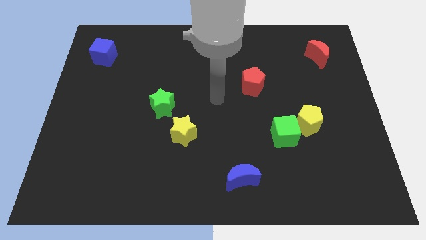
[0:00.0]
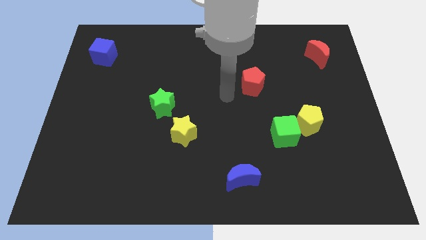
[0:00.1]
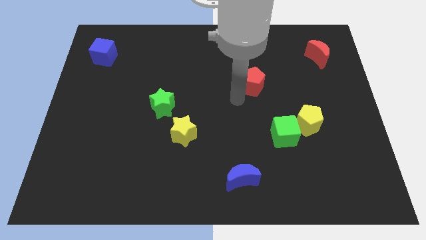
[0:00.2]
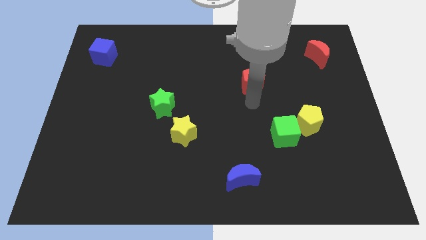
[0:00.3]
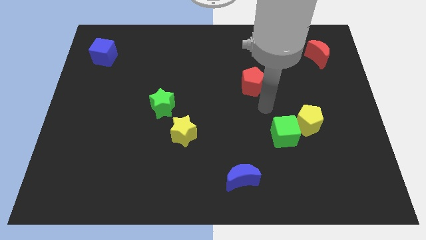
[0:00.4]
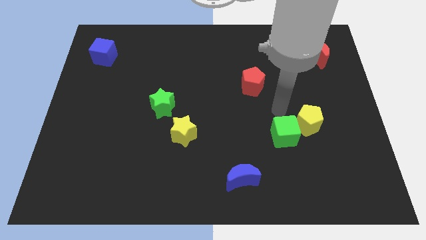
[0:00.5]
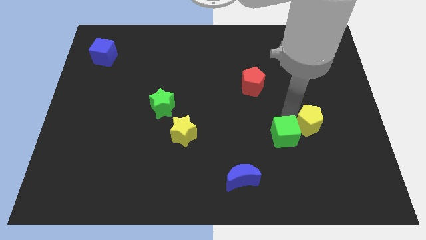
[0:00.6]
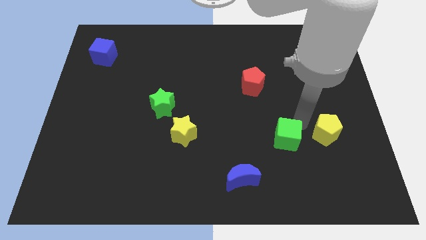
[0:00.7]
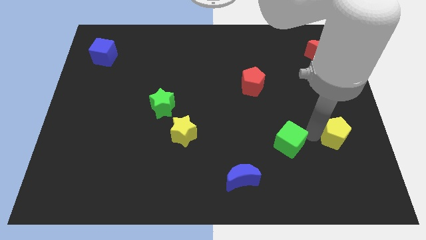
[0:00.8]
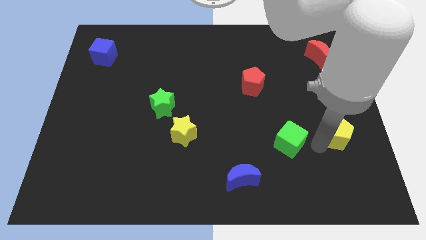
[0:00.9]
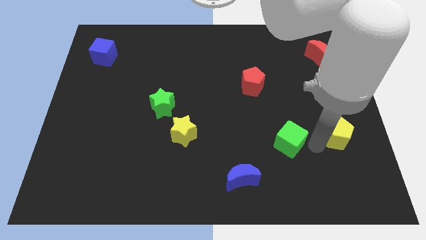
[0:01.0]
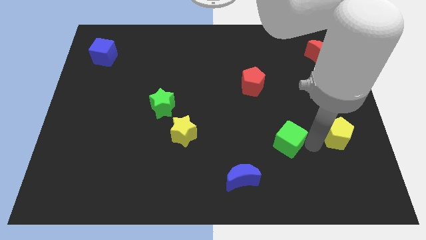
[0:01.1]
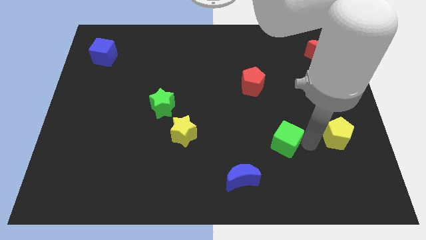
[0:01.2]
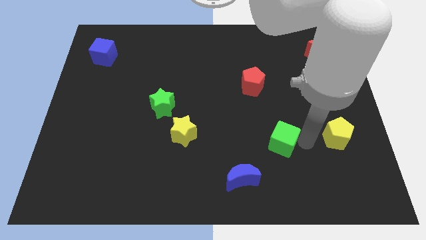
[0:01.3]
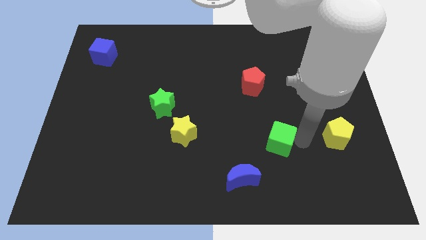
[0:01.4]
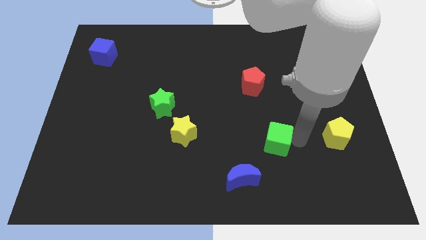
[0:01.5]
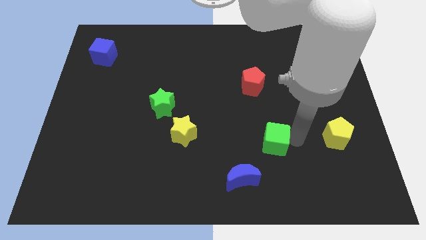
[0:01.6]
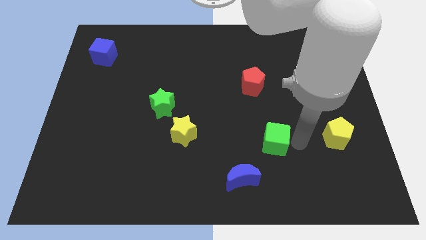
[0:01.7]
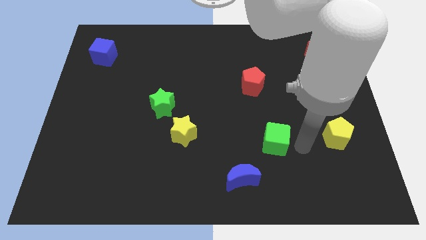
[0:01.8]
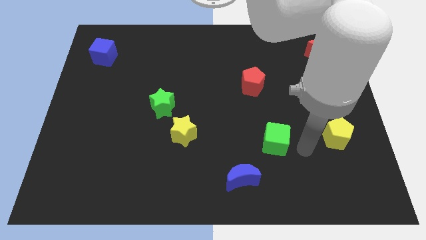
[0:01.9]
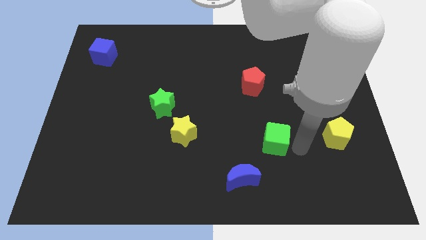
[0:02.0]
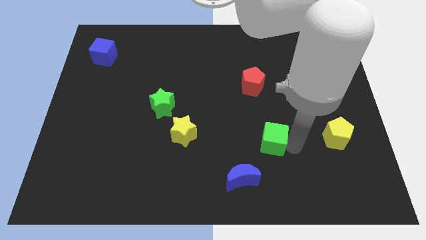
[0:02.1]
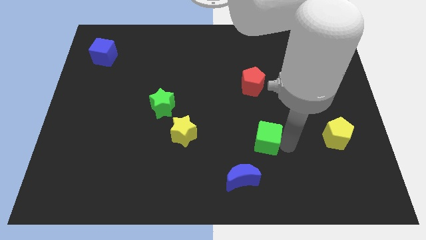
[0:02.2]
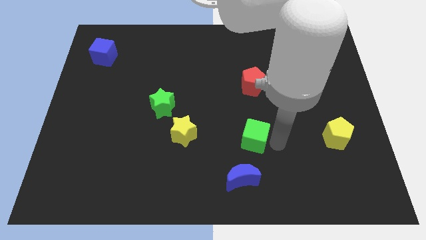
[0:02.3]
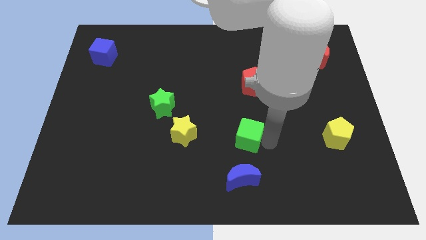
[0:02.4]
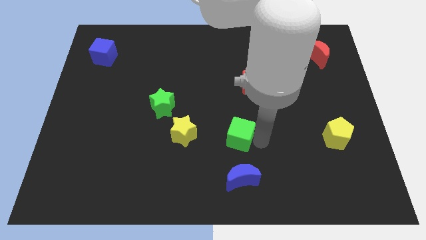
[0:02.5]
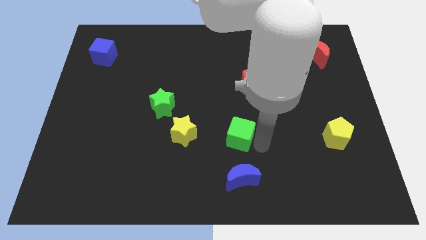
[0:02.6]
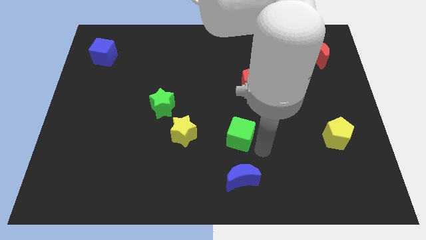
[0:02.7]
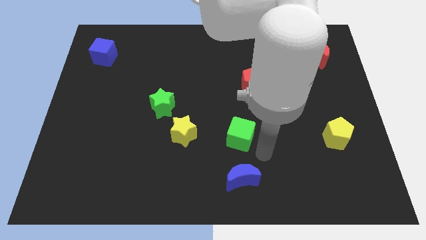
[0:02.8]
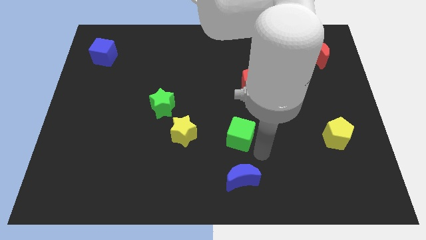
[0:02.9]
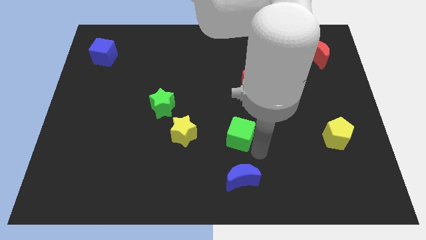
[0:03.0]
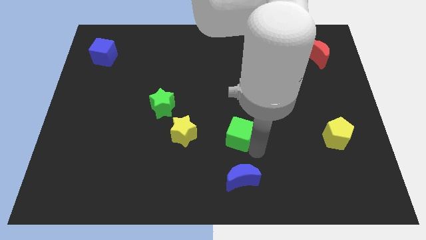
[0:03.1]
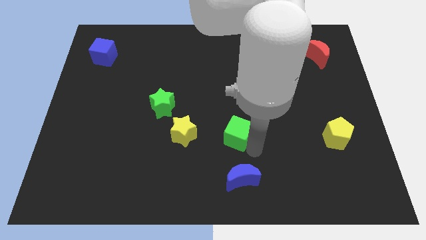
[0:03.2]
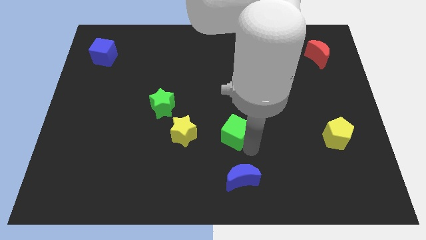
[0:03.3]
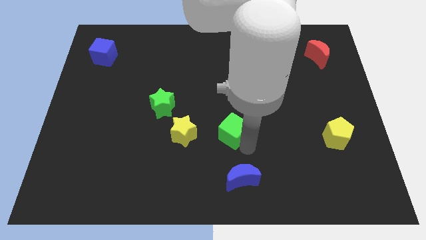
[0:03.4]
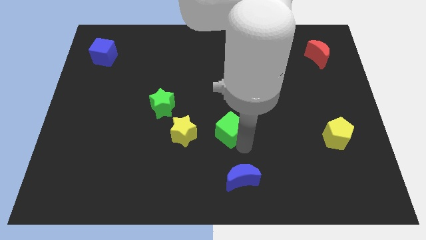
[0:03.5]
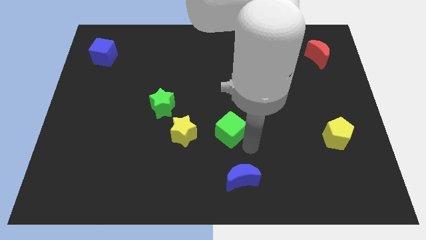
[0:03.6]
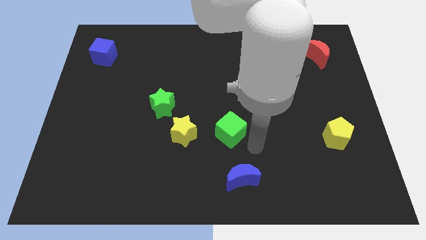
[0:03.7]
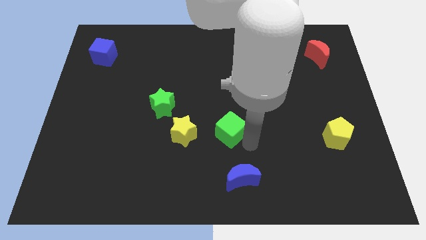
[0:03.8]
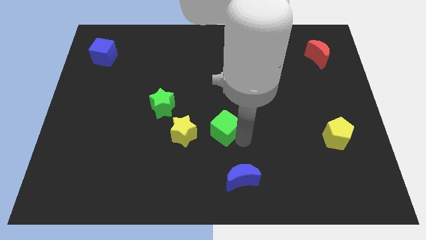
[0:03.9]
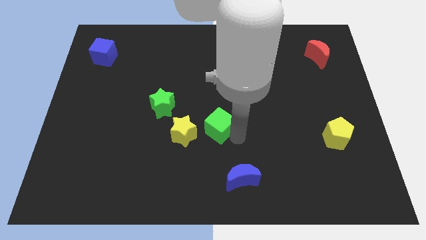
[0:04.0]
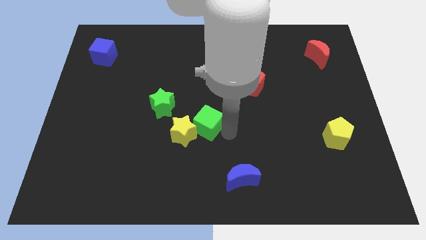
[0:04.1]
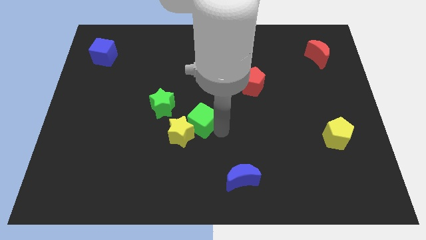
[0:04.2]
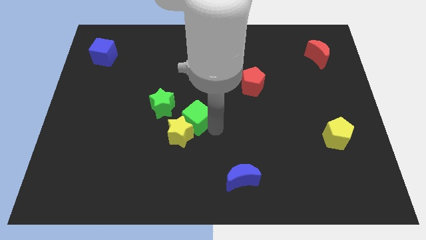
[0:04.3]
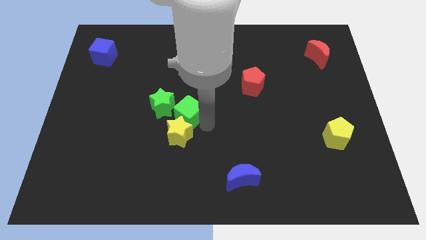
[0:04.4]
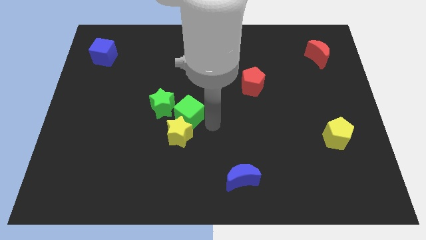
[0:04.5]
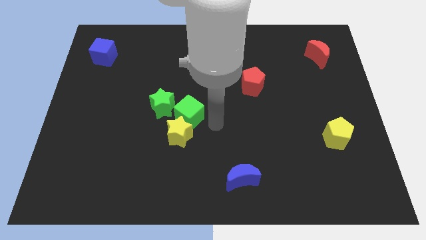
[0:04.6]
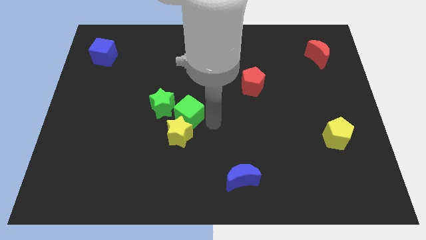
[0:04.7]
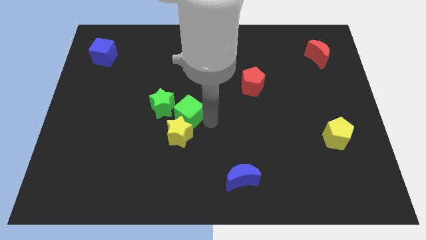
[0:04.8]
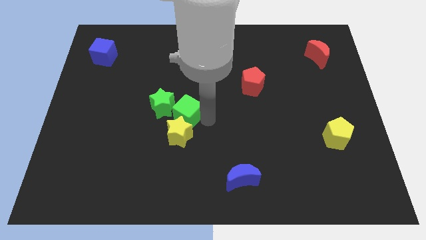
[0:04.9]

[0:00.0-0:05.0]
move the green cube towards the green star

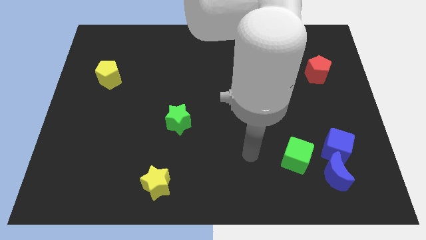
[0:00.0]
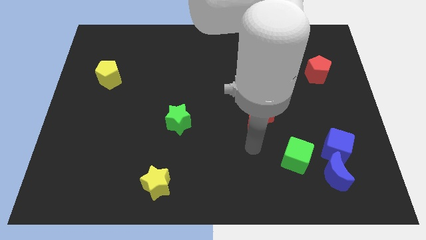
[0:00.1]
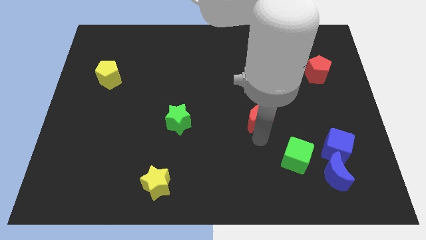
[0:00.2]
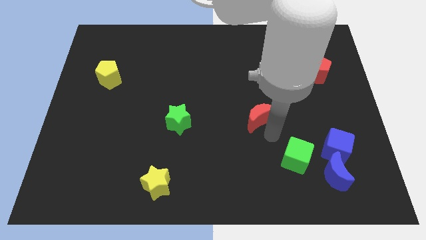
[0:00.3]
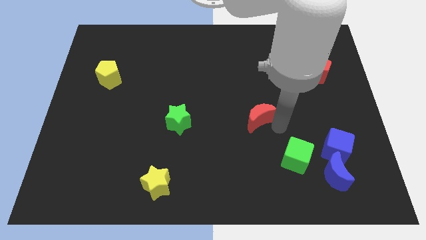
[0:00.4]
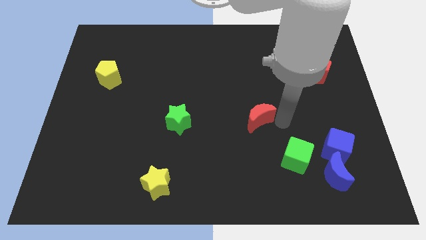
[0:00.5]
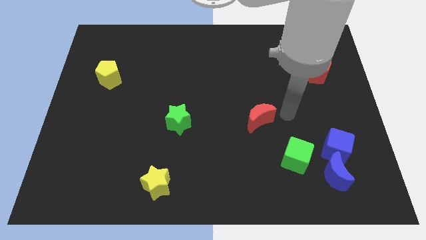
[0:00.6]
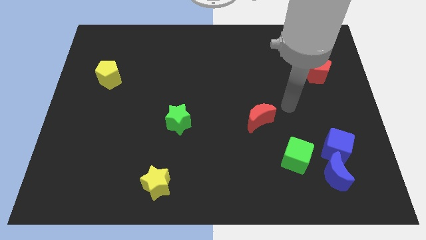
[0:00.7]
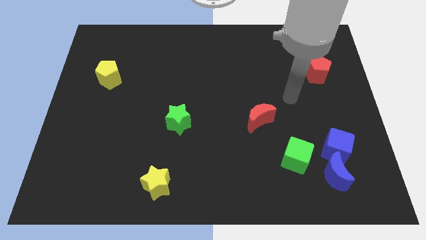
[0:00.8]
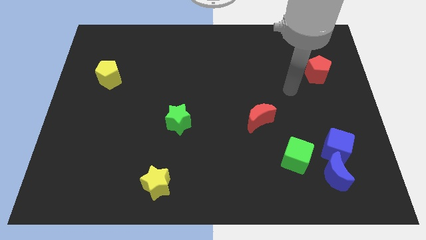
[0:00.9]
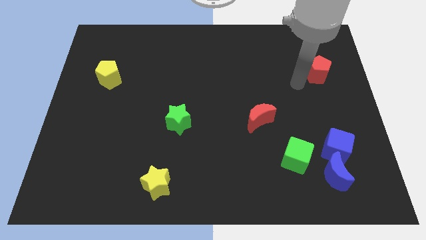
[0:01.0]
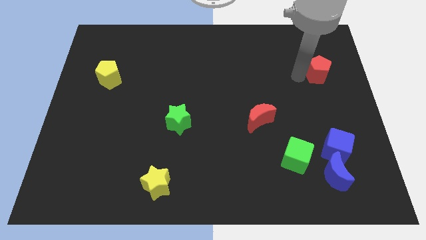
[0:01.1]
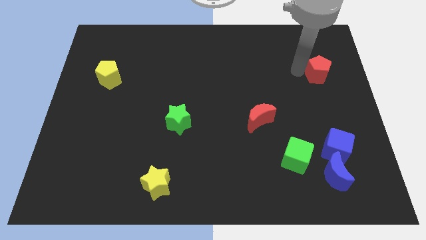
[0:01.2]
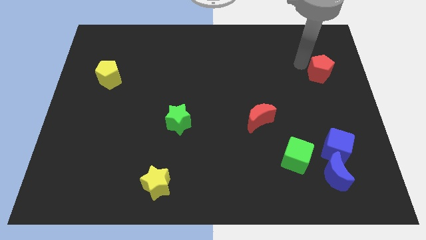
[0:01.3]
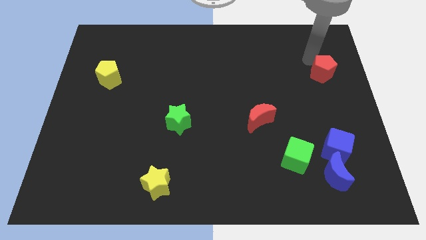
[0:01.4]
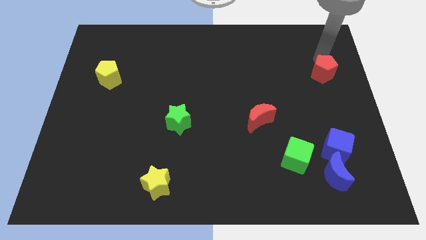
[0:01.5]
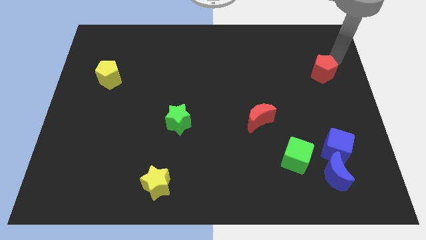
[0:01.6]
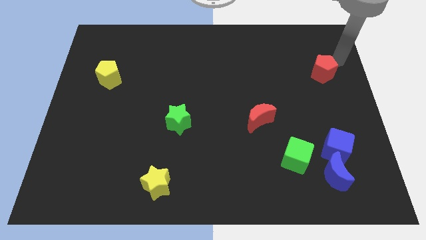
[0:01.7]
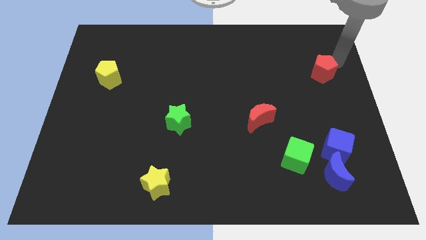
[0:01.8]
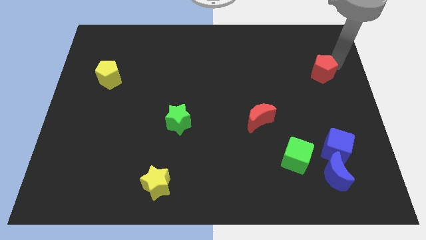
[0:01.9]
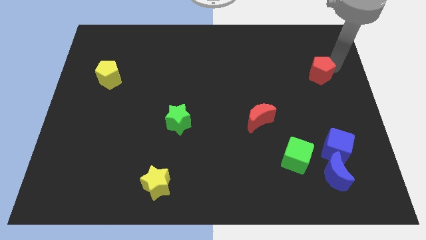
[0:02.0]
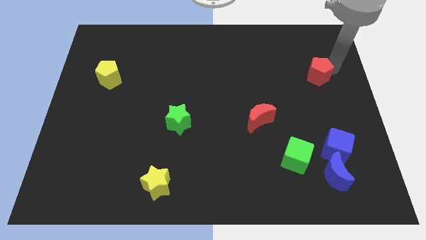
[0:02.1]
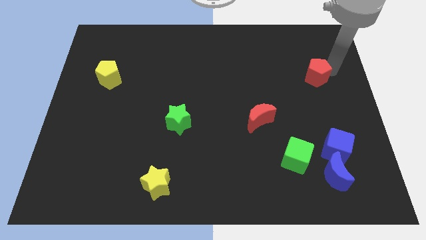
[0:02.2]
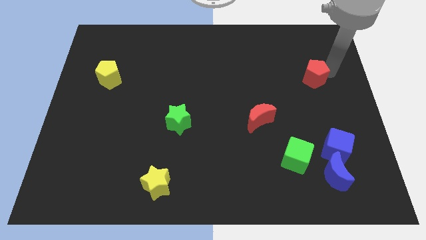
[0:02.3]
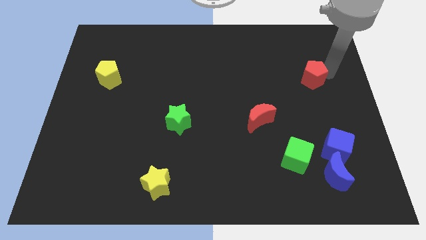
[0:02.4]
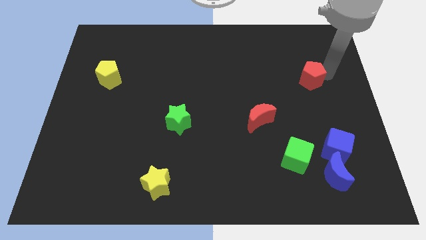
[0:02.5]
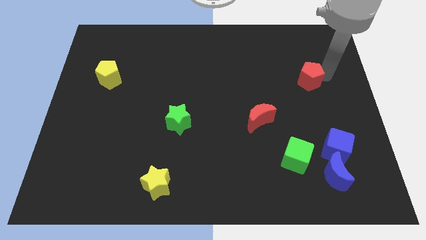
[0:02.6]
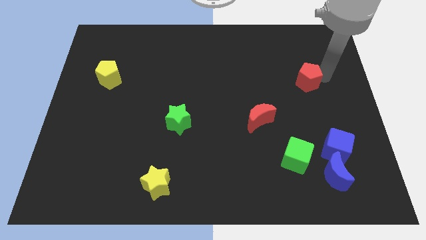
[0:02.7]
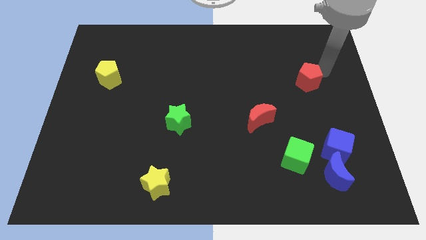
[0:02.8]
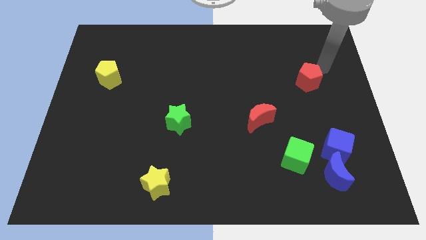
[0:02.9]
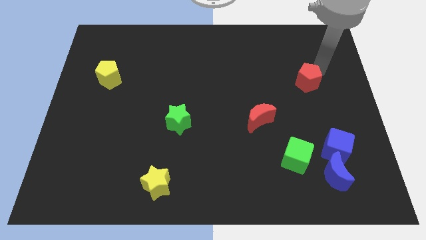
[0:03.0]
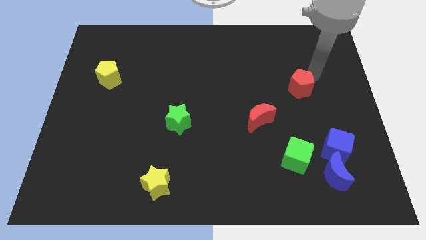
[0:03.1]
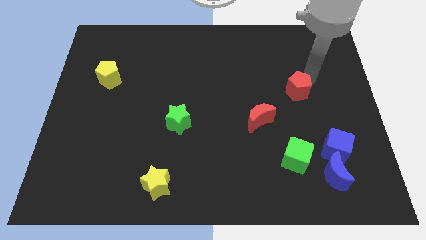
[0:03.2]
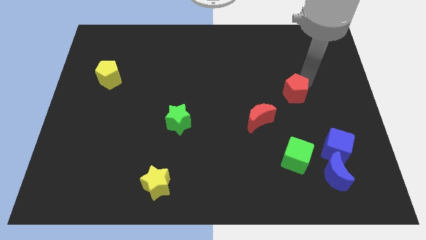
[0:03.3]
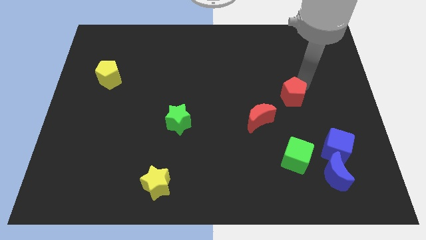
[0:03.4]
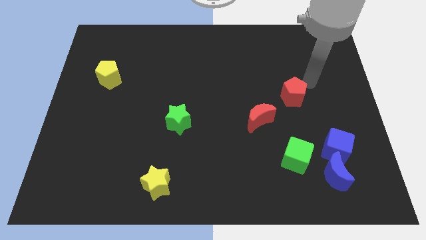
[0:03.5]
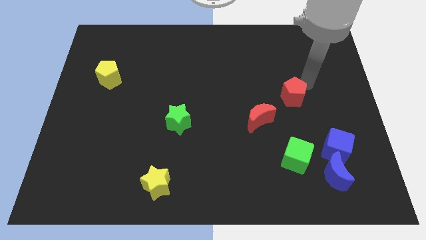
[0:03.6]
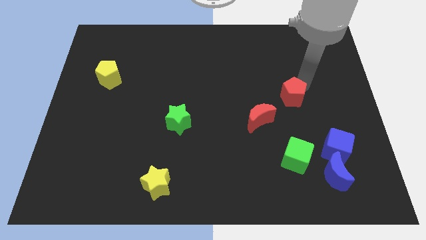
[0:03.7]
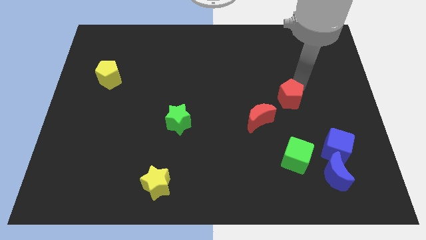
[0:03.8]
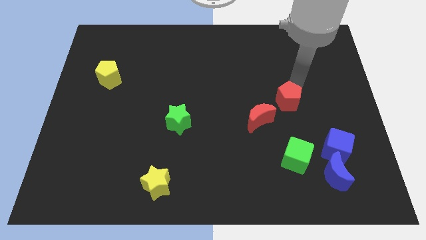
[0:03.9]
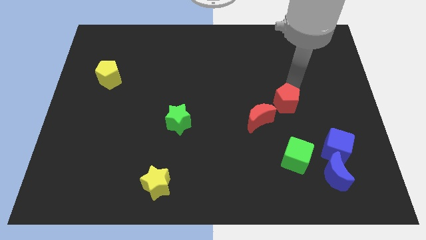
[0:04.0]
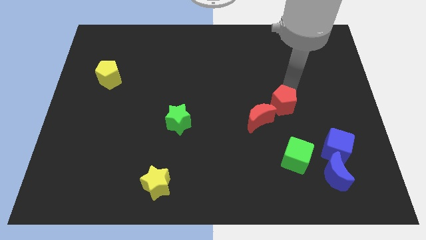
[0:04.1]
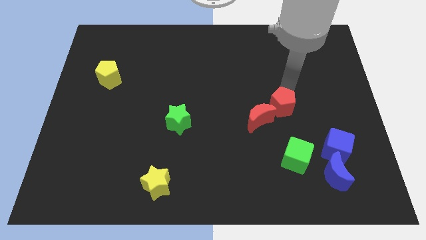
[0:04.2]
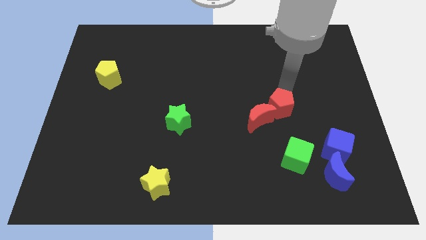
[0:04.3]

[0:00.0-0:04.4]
push the red pentagon to the red moon
